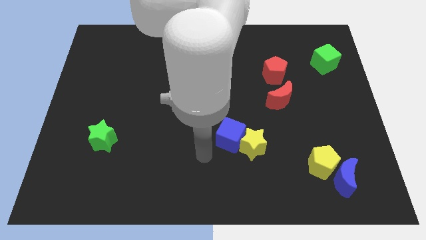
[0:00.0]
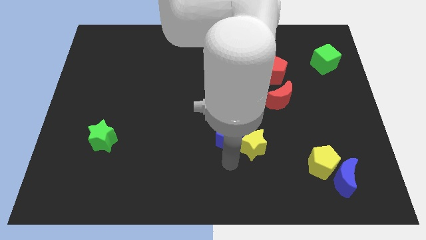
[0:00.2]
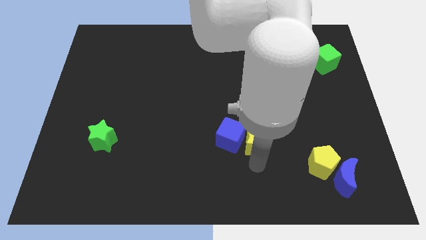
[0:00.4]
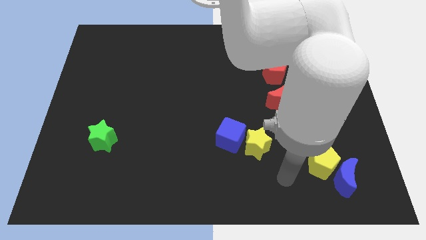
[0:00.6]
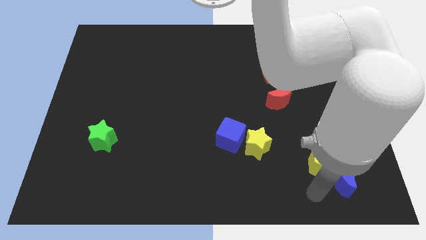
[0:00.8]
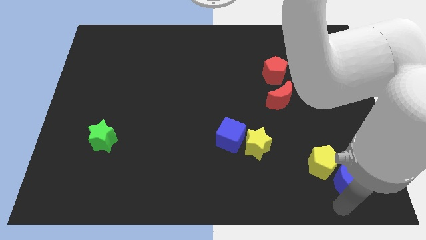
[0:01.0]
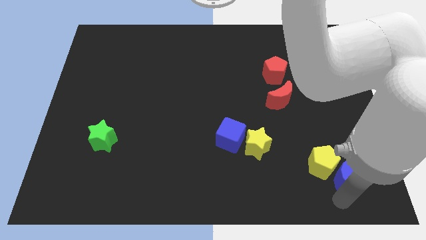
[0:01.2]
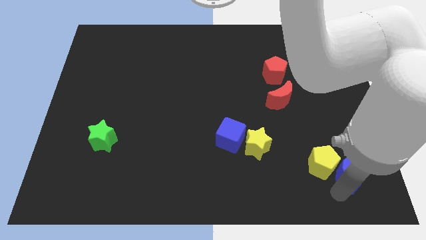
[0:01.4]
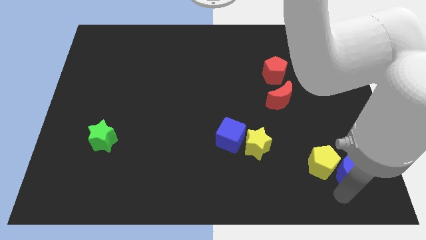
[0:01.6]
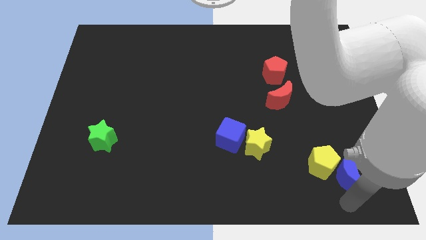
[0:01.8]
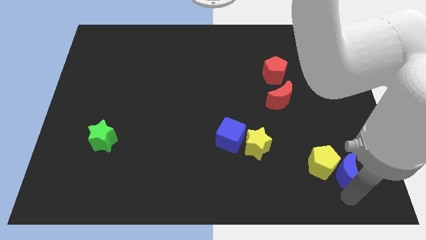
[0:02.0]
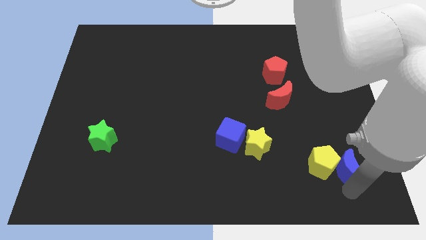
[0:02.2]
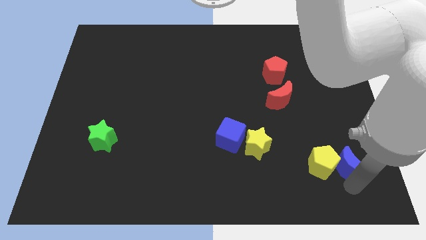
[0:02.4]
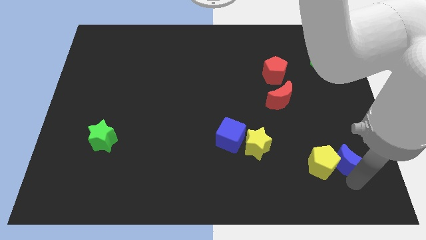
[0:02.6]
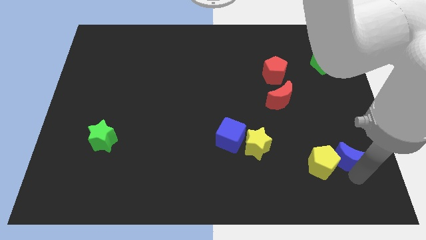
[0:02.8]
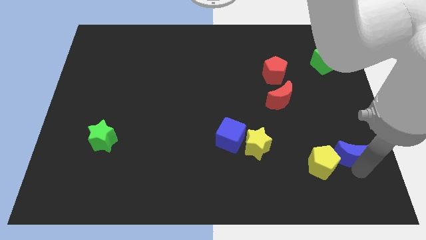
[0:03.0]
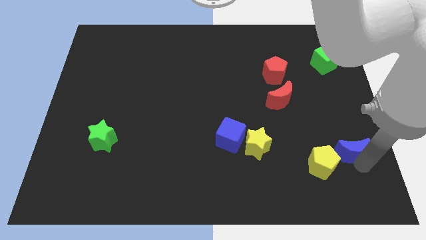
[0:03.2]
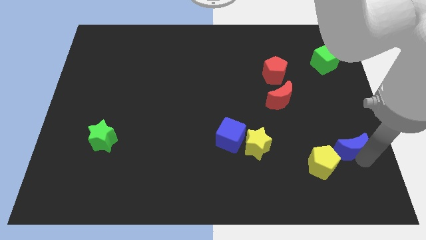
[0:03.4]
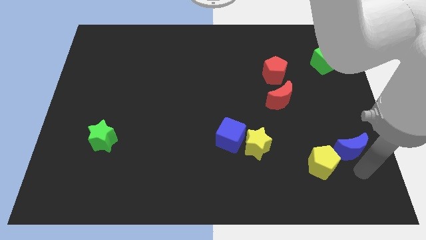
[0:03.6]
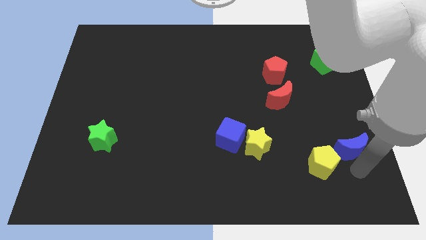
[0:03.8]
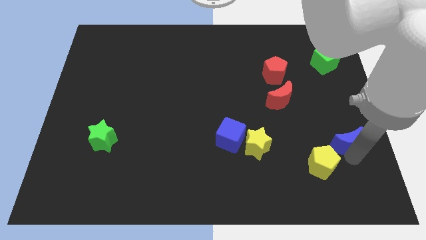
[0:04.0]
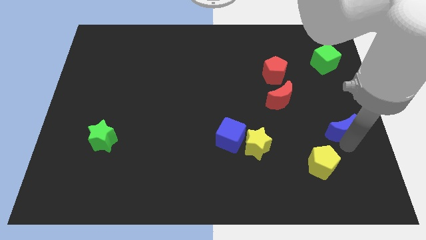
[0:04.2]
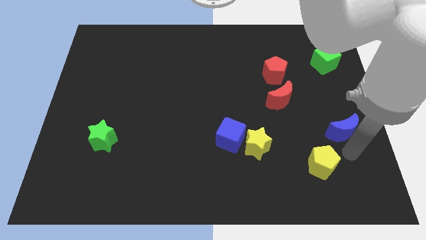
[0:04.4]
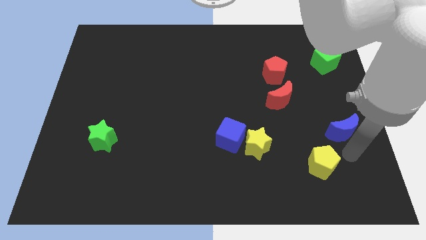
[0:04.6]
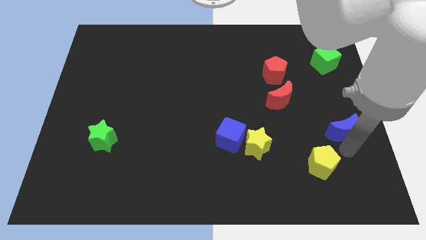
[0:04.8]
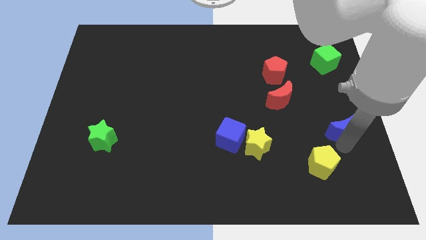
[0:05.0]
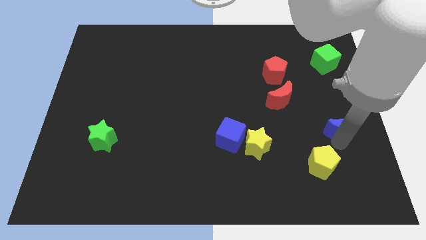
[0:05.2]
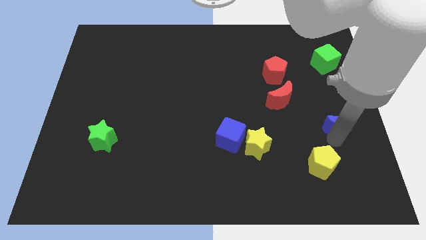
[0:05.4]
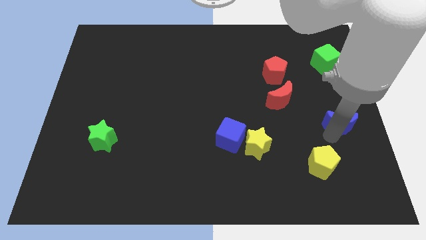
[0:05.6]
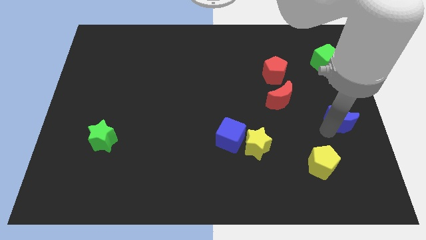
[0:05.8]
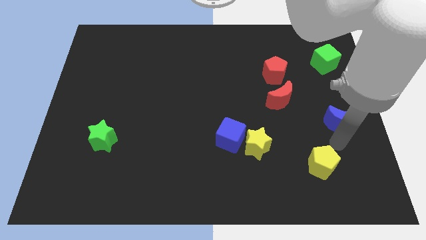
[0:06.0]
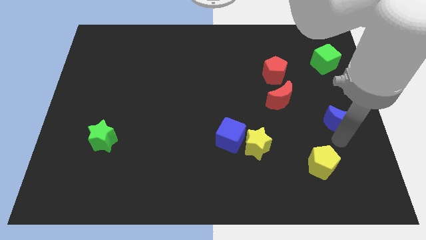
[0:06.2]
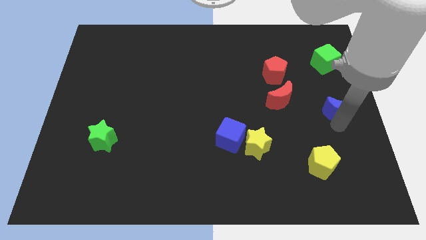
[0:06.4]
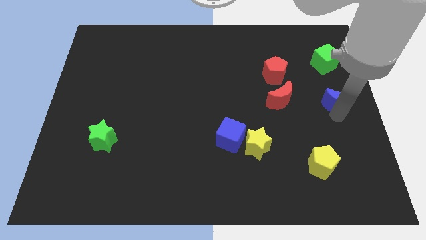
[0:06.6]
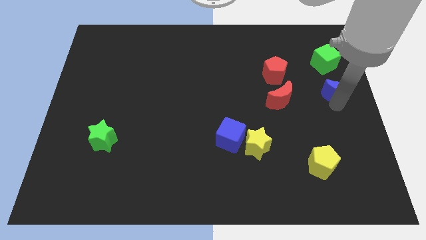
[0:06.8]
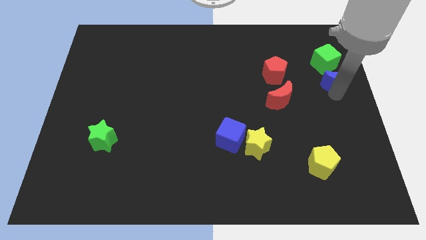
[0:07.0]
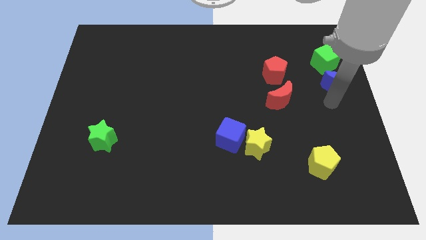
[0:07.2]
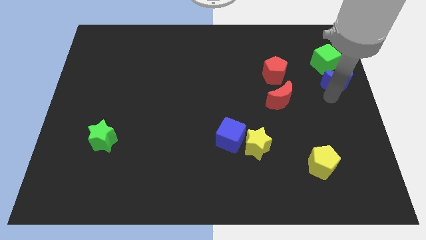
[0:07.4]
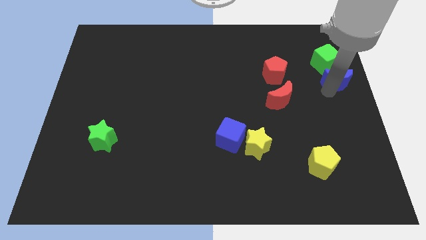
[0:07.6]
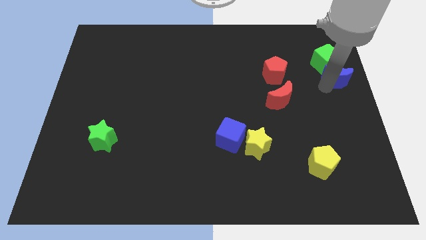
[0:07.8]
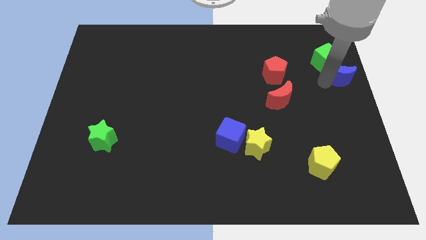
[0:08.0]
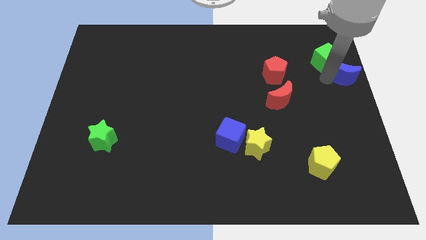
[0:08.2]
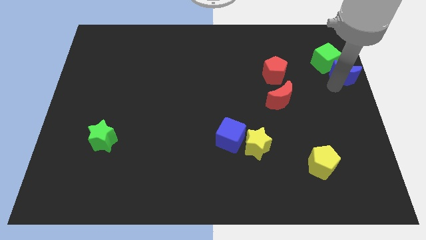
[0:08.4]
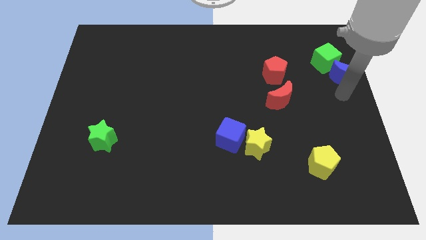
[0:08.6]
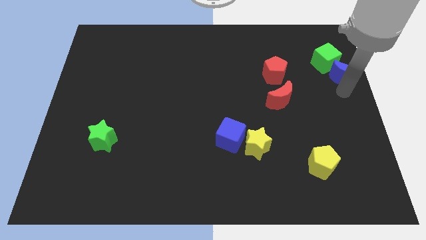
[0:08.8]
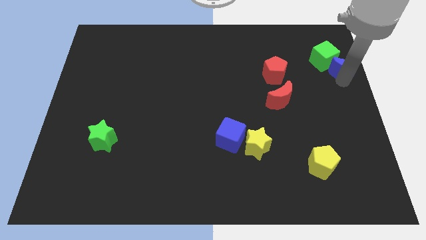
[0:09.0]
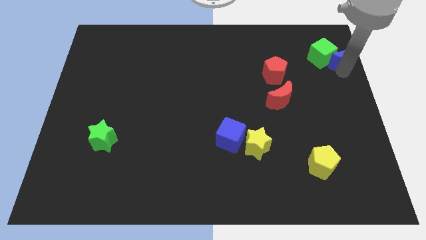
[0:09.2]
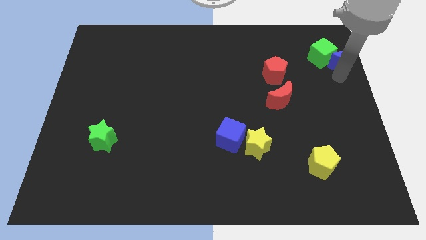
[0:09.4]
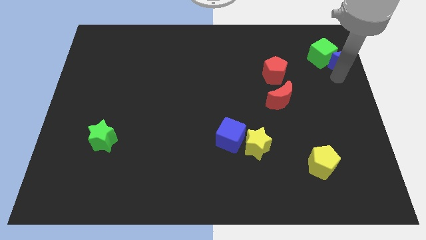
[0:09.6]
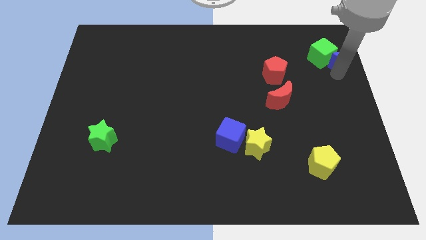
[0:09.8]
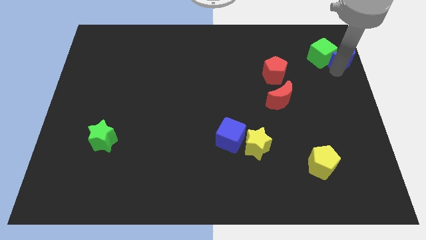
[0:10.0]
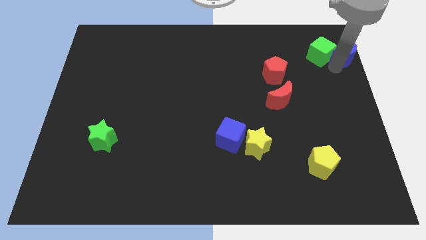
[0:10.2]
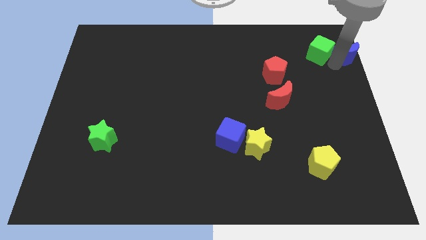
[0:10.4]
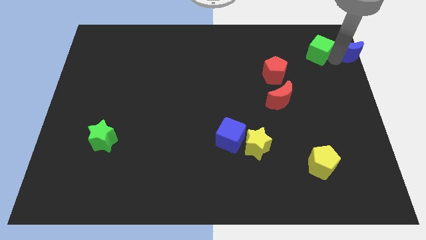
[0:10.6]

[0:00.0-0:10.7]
slide the blue moon to the top right corner

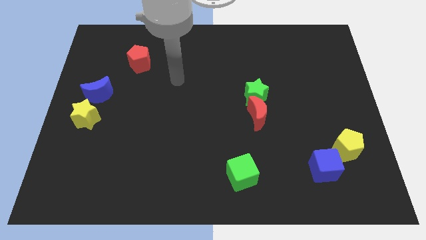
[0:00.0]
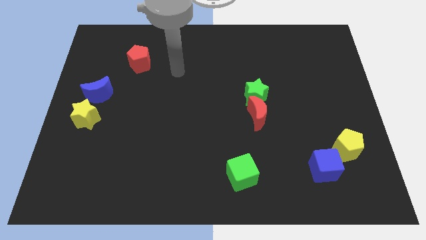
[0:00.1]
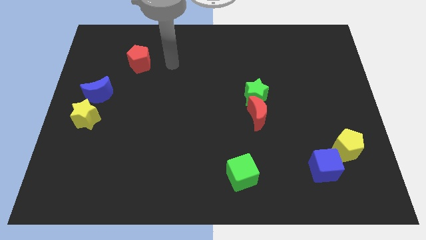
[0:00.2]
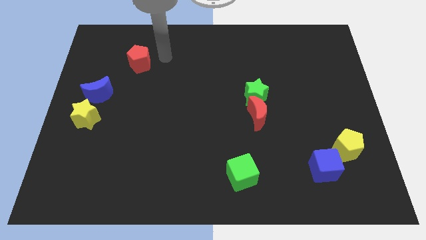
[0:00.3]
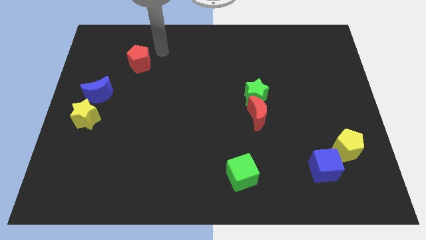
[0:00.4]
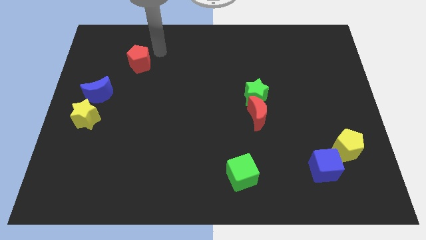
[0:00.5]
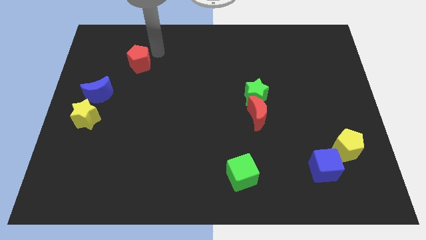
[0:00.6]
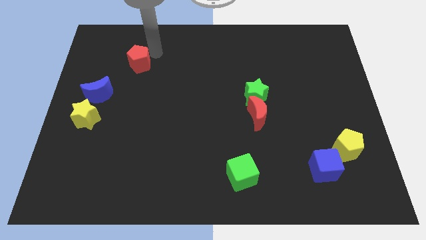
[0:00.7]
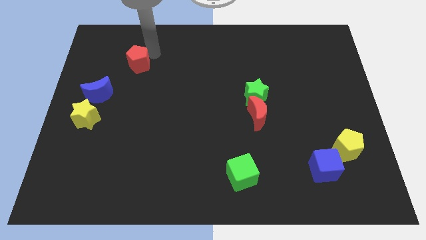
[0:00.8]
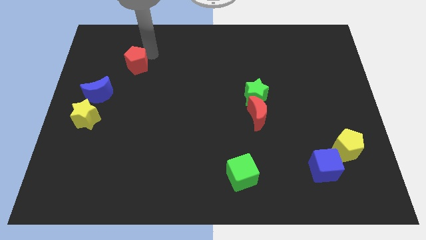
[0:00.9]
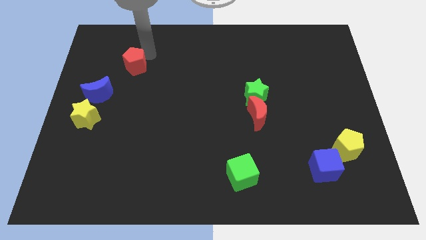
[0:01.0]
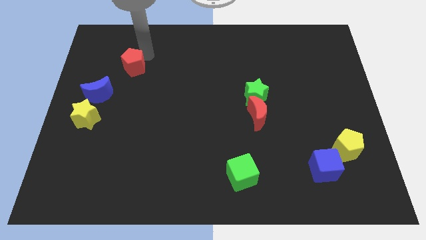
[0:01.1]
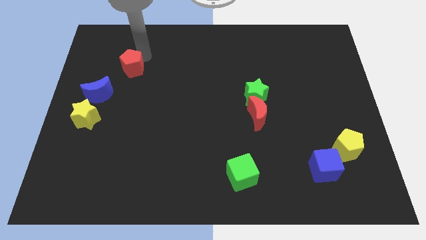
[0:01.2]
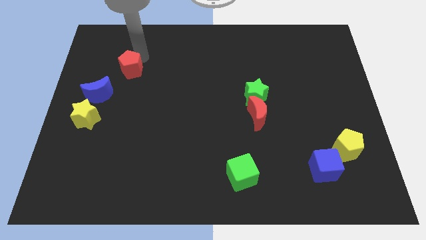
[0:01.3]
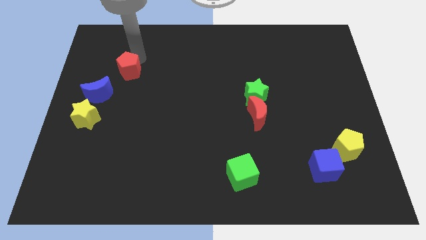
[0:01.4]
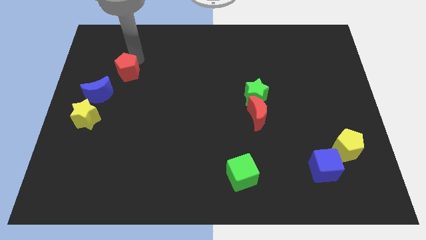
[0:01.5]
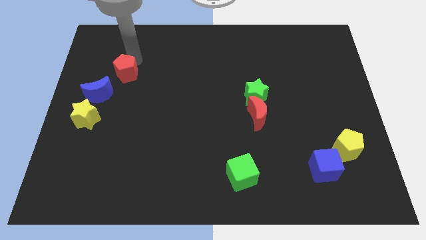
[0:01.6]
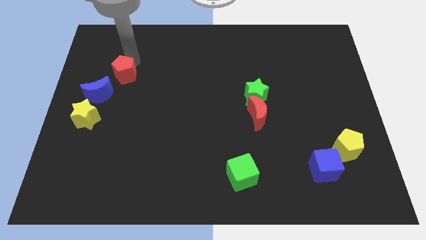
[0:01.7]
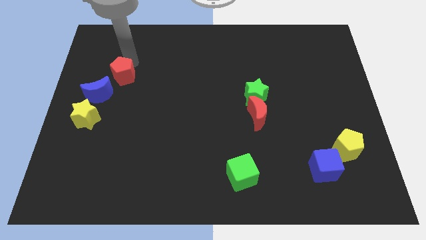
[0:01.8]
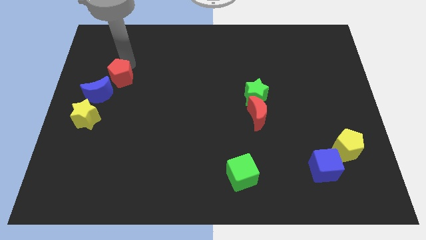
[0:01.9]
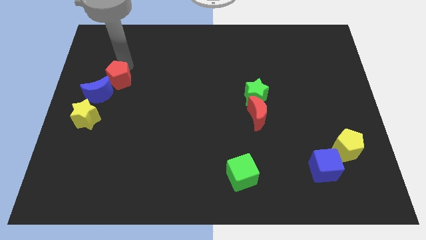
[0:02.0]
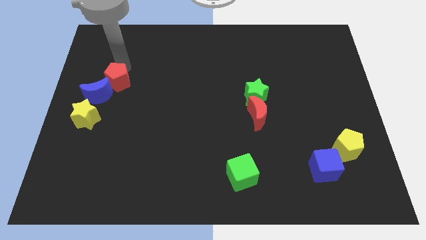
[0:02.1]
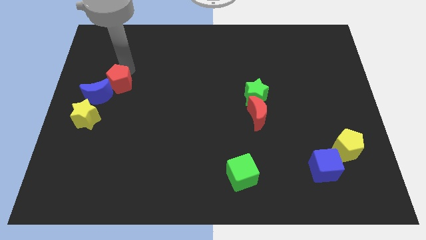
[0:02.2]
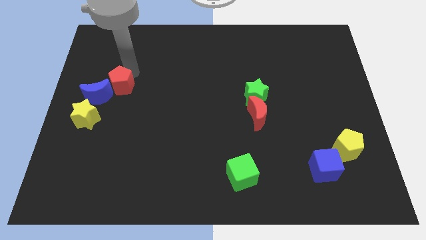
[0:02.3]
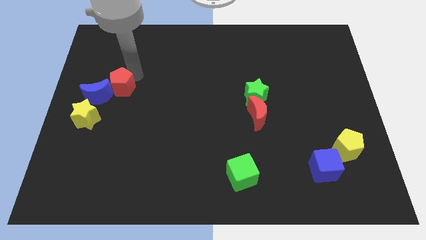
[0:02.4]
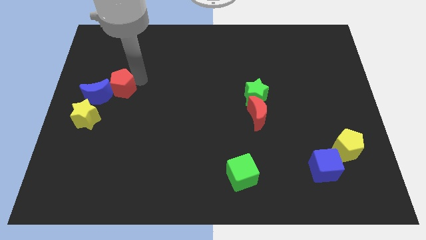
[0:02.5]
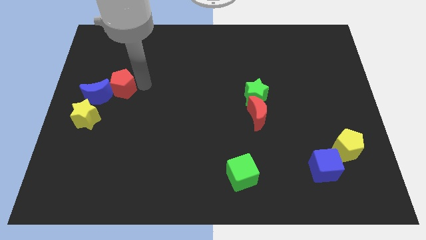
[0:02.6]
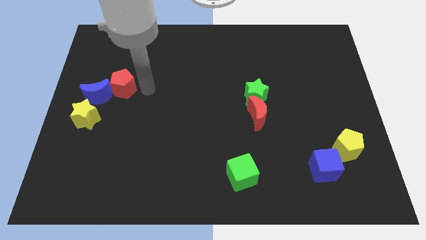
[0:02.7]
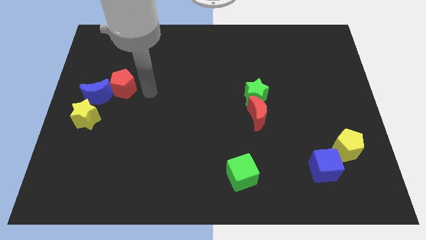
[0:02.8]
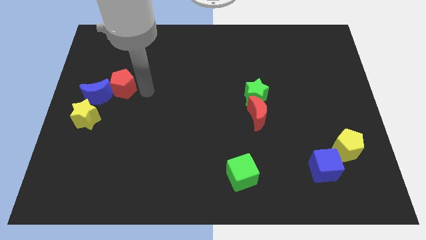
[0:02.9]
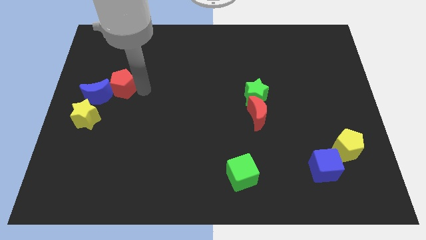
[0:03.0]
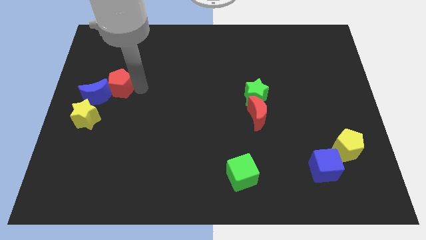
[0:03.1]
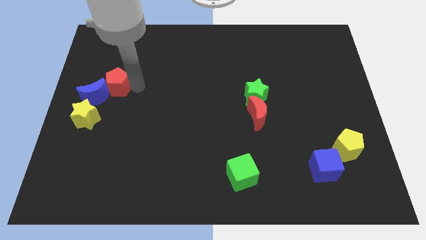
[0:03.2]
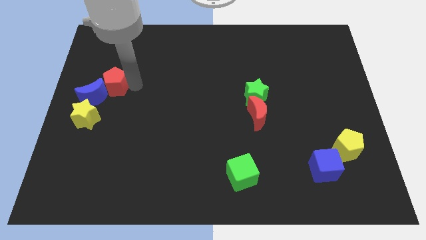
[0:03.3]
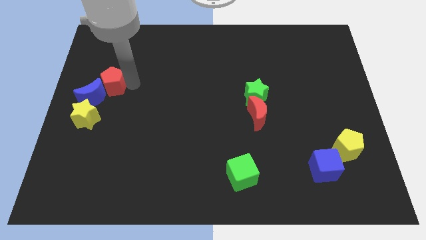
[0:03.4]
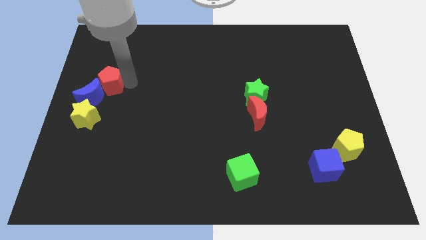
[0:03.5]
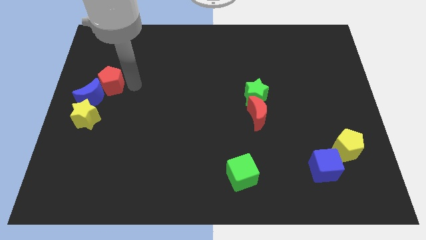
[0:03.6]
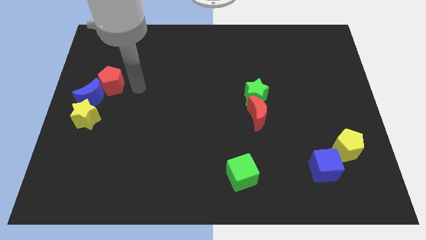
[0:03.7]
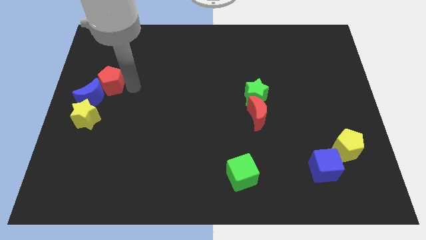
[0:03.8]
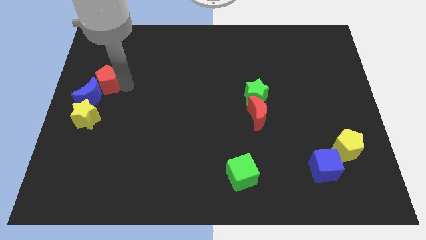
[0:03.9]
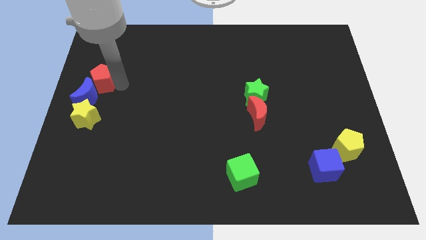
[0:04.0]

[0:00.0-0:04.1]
move the red pentagon to the left side
